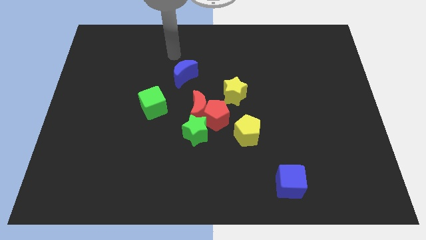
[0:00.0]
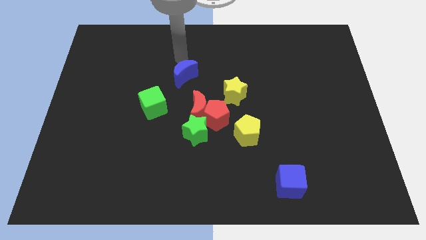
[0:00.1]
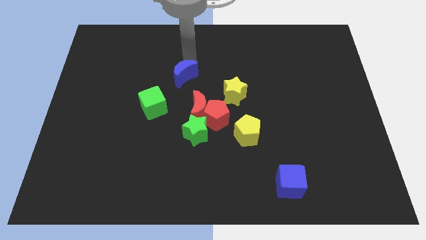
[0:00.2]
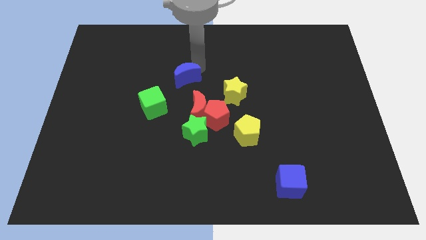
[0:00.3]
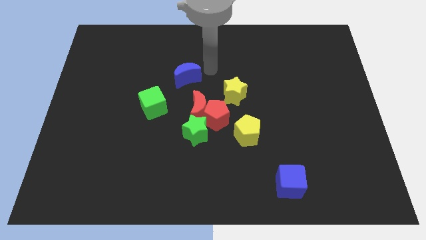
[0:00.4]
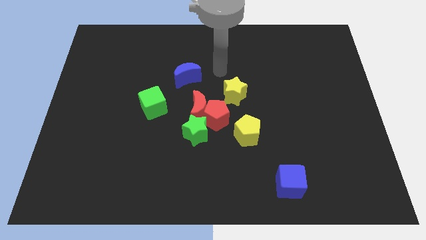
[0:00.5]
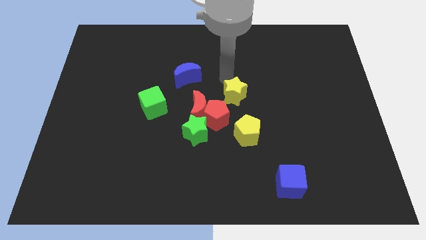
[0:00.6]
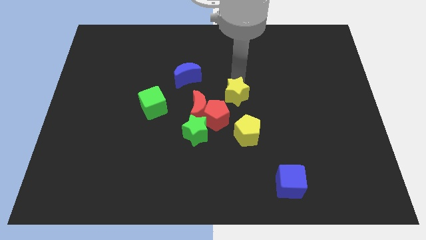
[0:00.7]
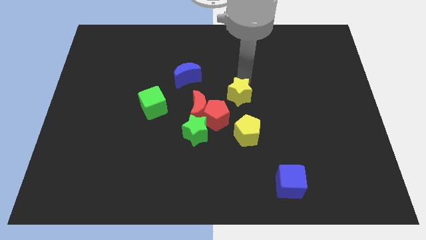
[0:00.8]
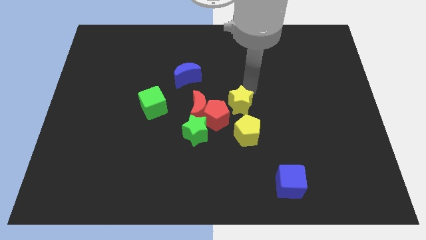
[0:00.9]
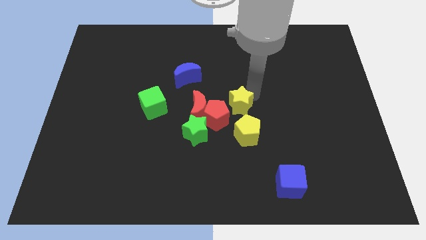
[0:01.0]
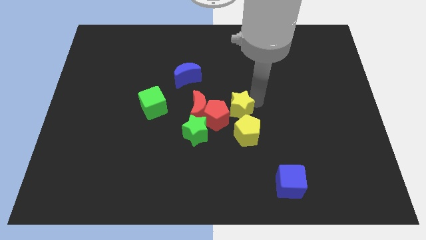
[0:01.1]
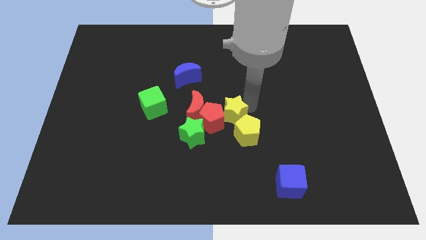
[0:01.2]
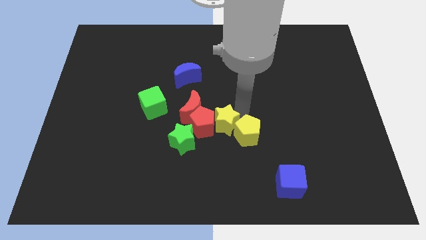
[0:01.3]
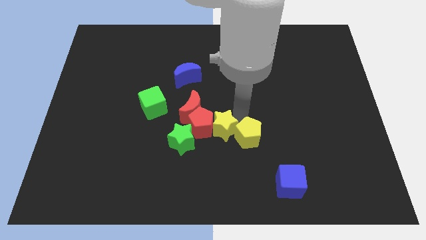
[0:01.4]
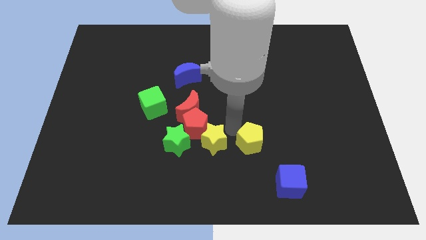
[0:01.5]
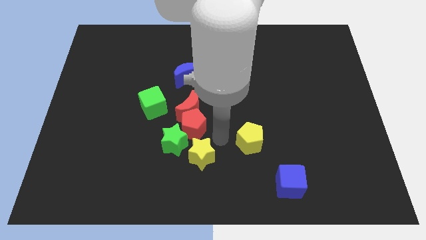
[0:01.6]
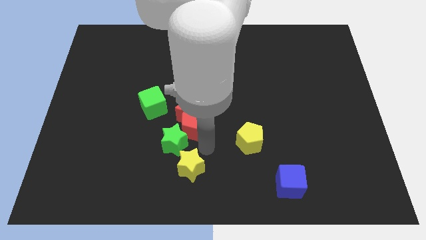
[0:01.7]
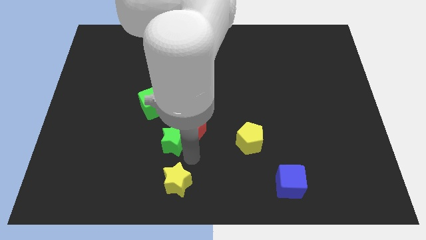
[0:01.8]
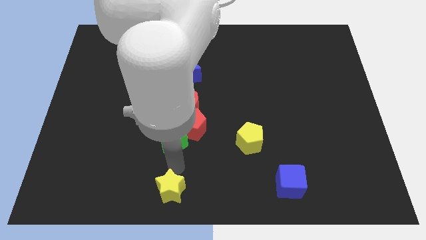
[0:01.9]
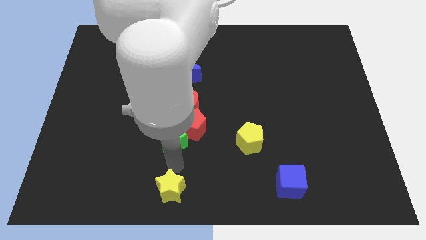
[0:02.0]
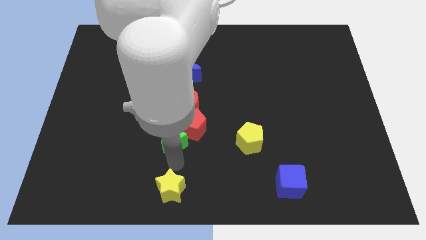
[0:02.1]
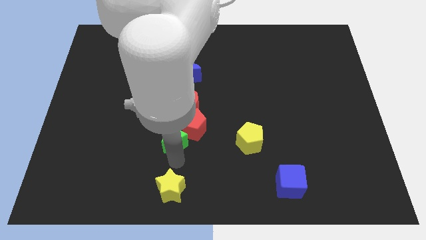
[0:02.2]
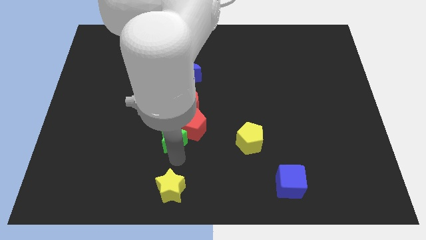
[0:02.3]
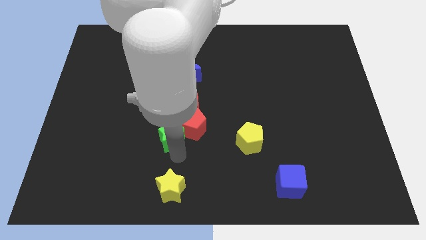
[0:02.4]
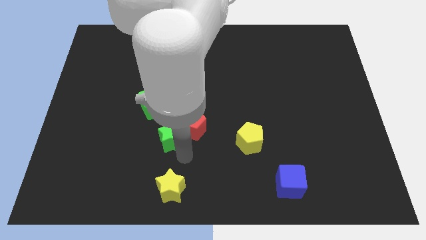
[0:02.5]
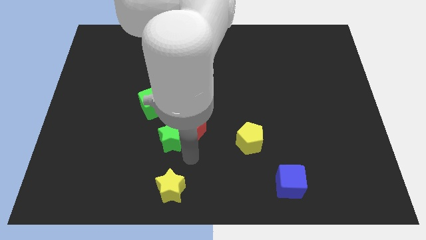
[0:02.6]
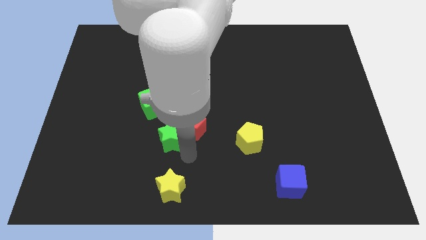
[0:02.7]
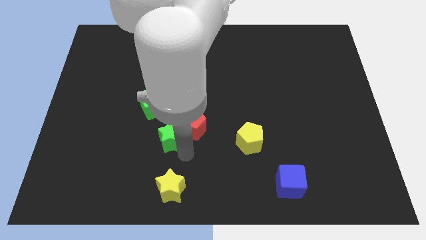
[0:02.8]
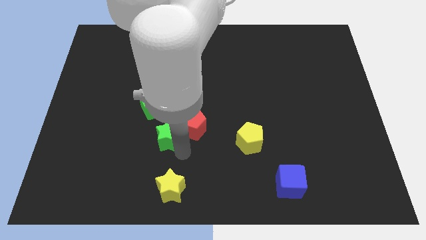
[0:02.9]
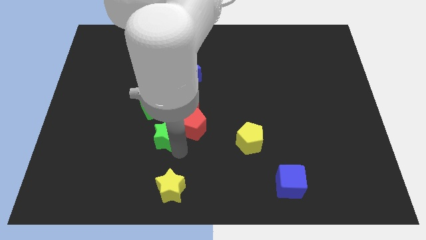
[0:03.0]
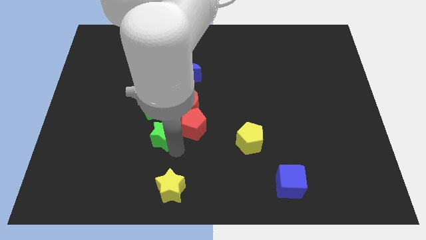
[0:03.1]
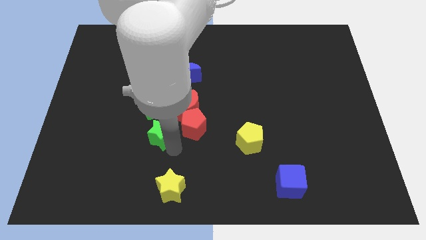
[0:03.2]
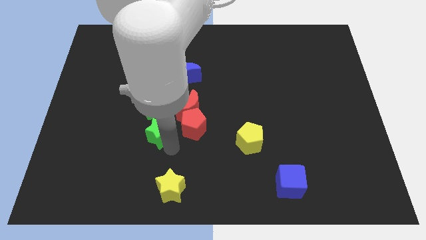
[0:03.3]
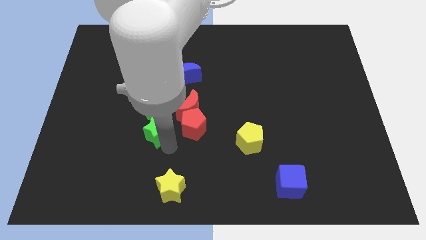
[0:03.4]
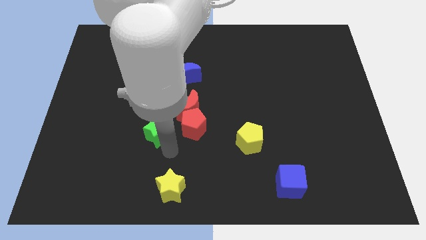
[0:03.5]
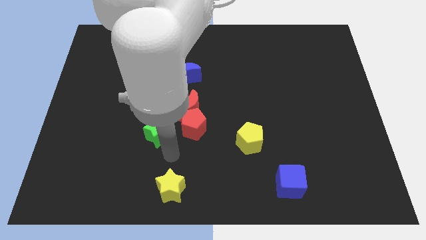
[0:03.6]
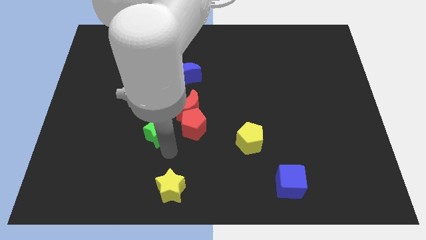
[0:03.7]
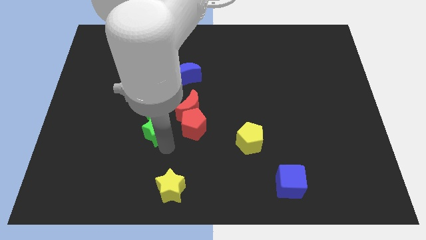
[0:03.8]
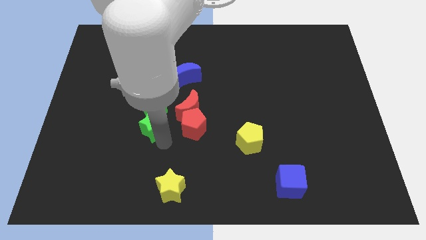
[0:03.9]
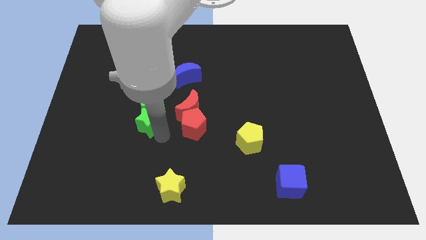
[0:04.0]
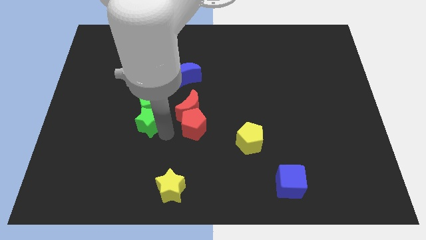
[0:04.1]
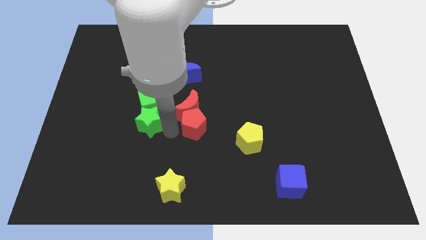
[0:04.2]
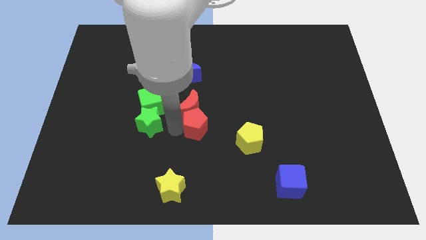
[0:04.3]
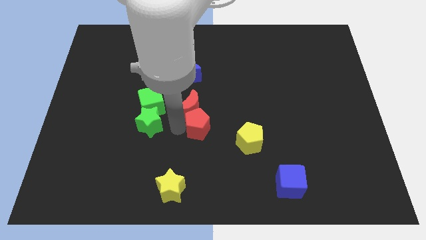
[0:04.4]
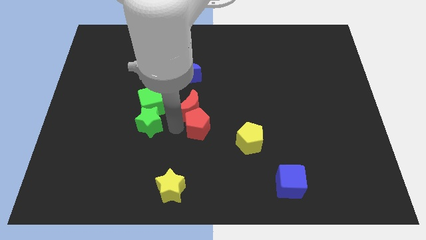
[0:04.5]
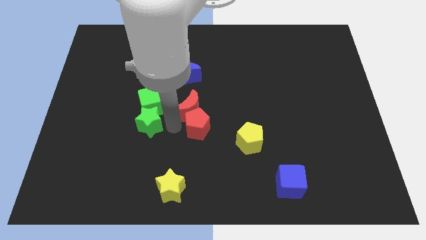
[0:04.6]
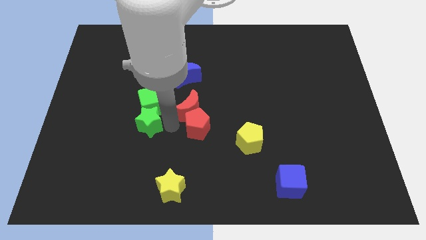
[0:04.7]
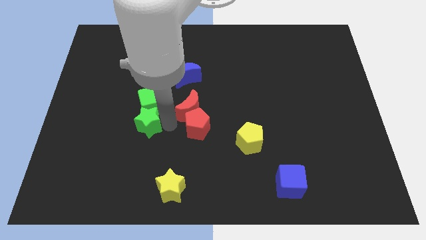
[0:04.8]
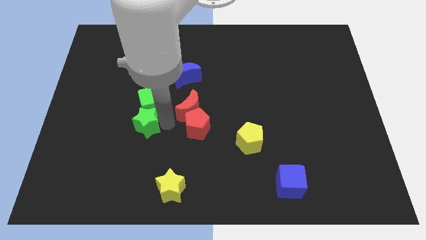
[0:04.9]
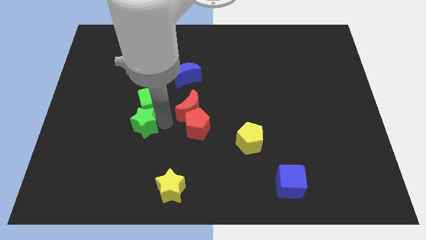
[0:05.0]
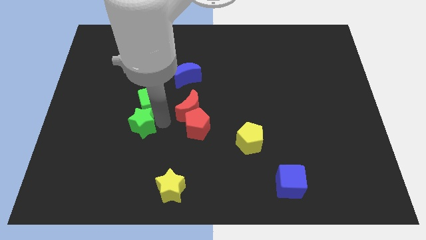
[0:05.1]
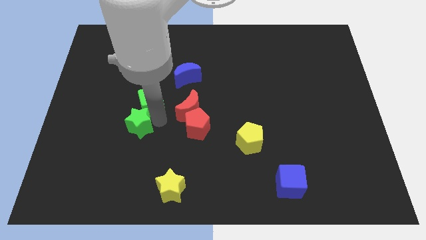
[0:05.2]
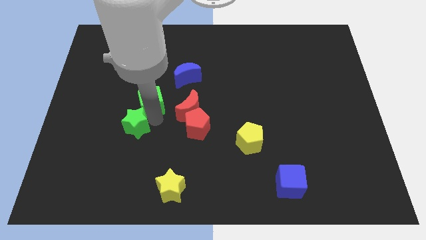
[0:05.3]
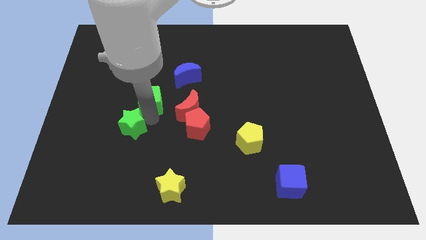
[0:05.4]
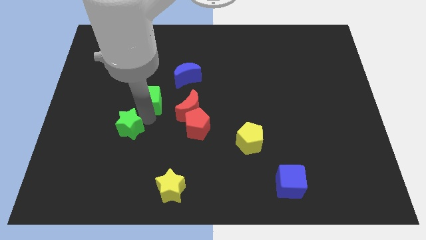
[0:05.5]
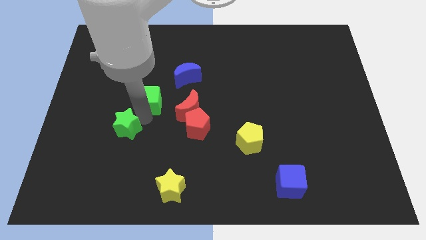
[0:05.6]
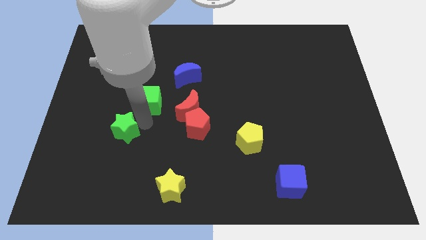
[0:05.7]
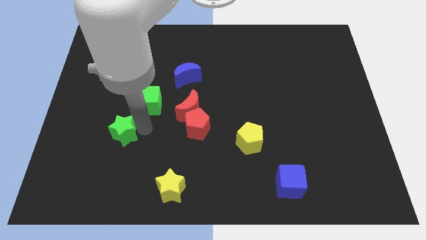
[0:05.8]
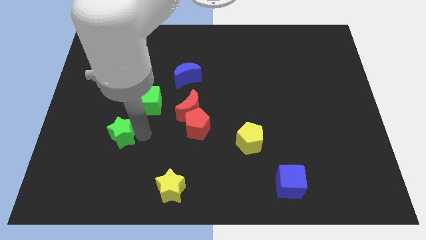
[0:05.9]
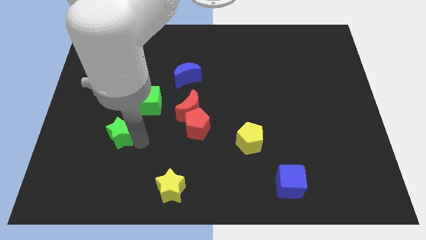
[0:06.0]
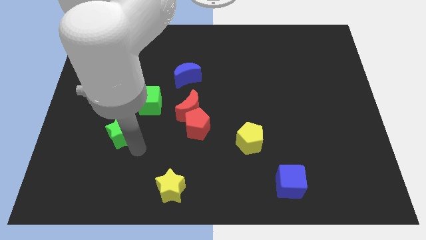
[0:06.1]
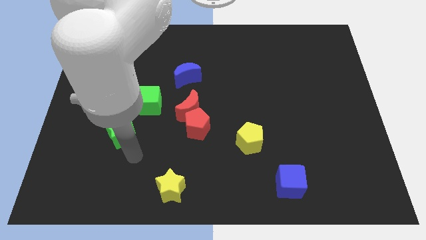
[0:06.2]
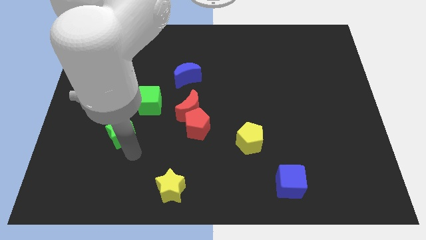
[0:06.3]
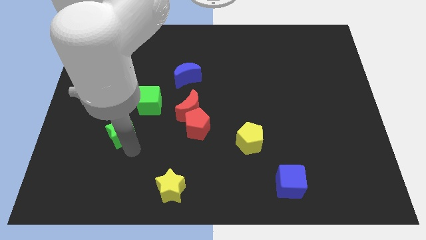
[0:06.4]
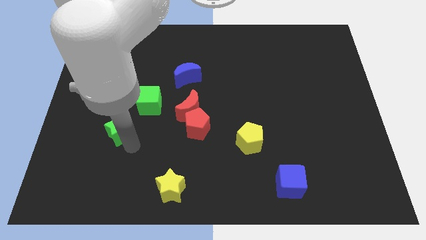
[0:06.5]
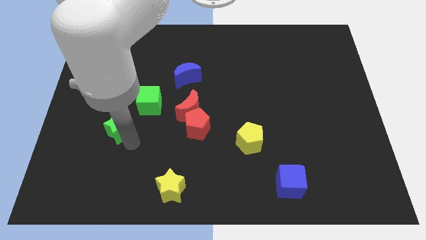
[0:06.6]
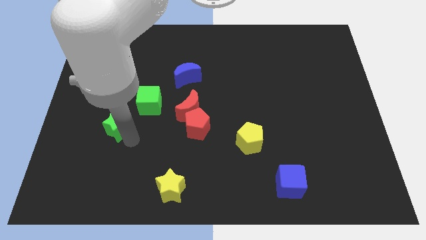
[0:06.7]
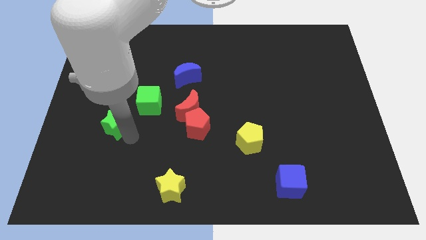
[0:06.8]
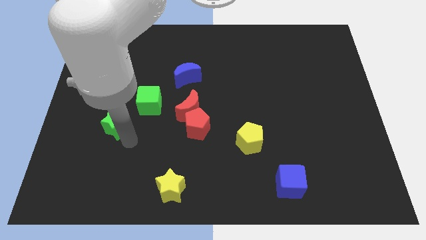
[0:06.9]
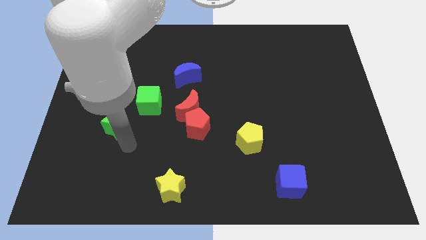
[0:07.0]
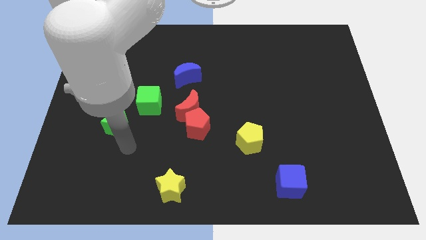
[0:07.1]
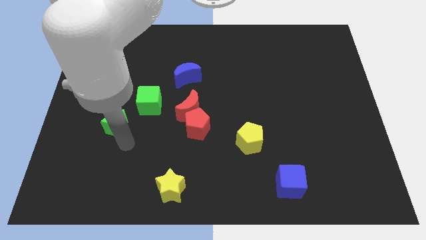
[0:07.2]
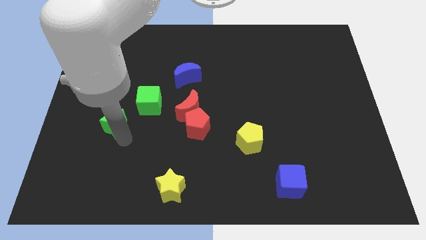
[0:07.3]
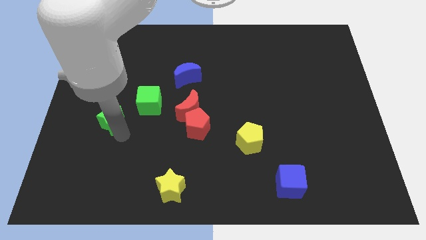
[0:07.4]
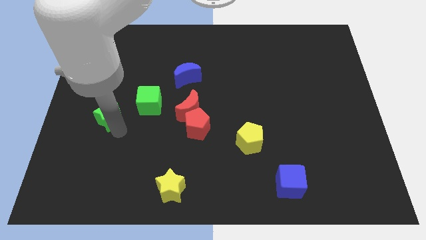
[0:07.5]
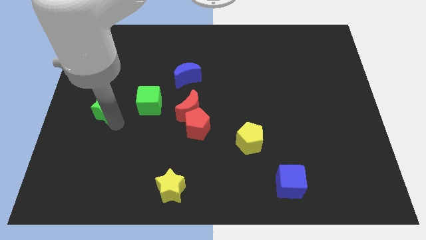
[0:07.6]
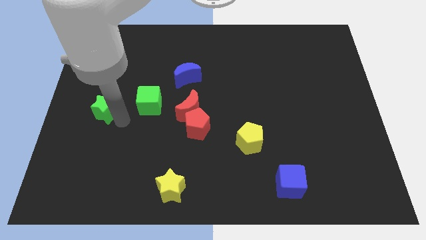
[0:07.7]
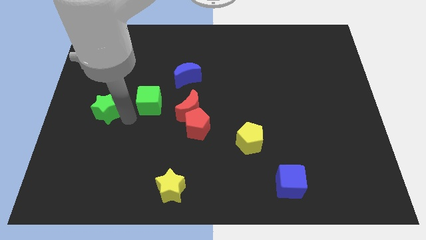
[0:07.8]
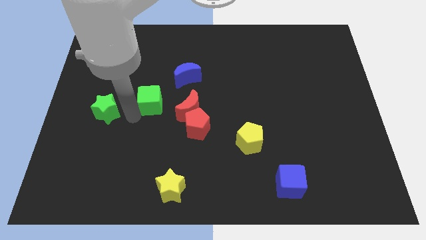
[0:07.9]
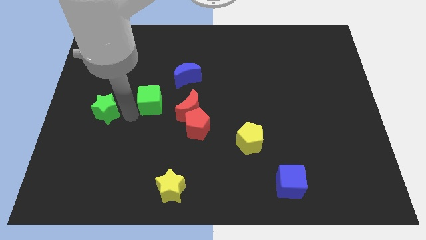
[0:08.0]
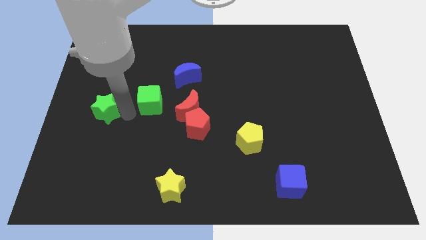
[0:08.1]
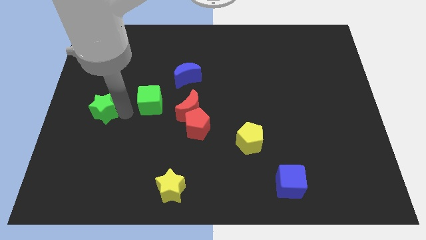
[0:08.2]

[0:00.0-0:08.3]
slide the green star to the left side
